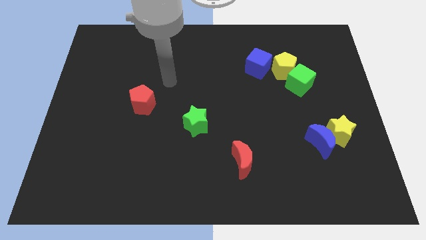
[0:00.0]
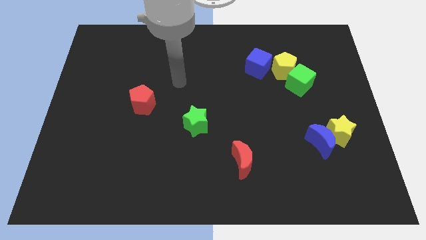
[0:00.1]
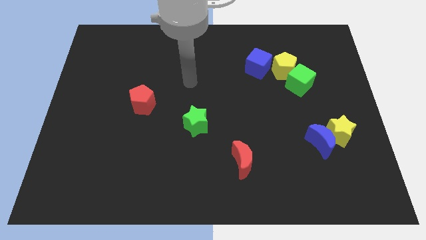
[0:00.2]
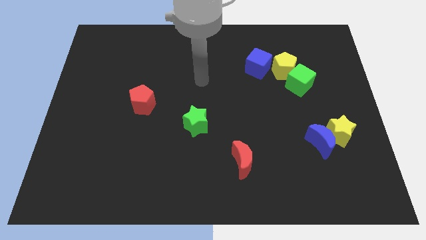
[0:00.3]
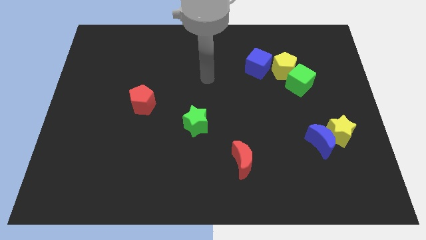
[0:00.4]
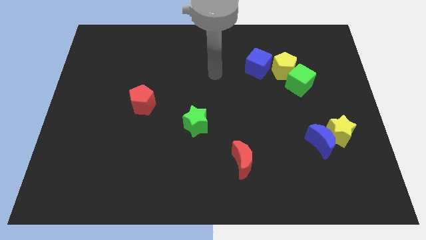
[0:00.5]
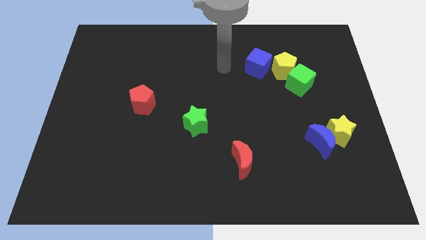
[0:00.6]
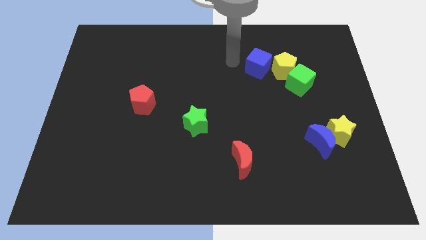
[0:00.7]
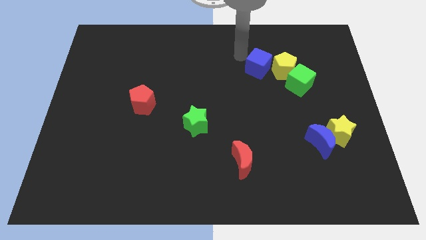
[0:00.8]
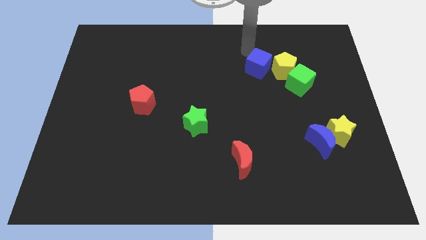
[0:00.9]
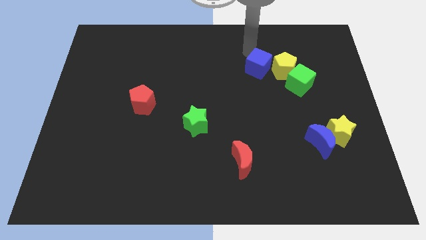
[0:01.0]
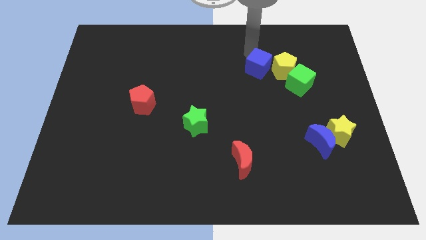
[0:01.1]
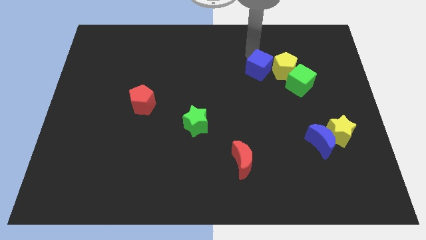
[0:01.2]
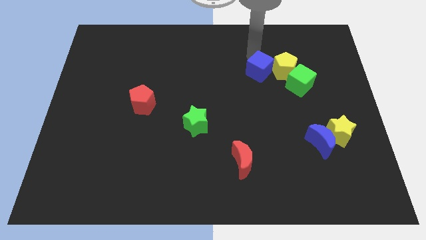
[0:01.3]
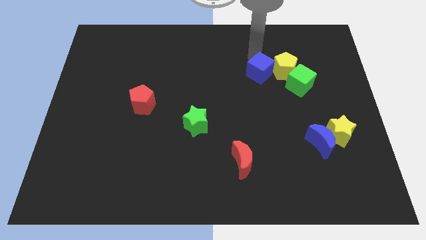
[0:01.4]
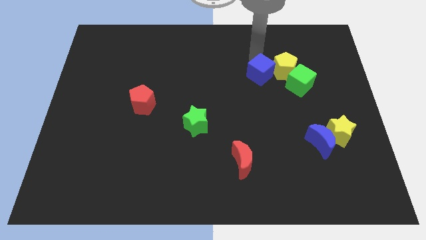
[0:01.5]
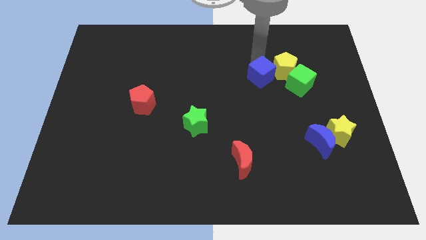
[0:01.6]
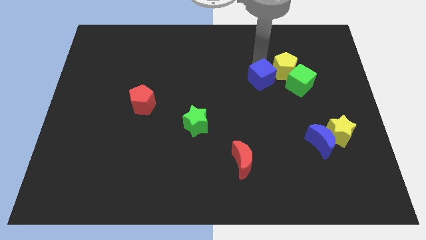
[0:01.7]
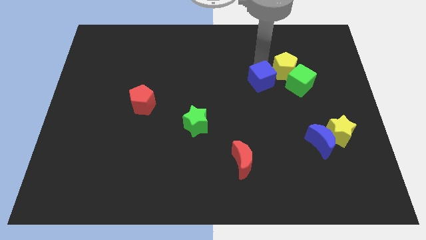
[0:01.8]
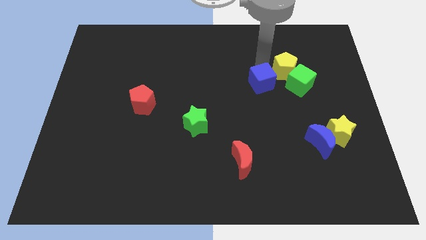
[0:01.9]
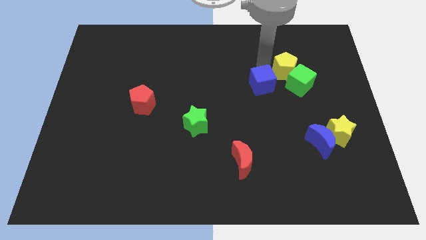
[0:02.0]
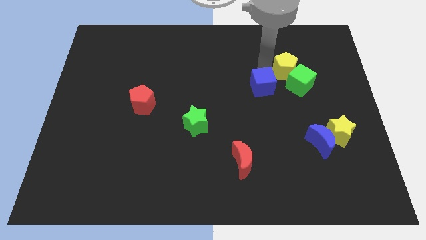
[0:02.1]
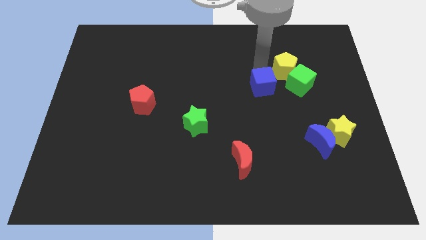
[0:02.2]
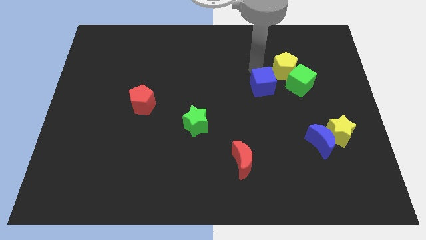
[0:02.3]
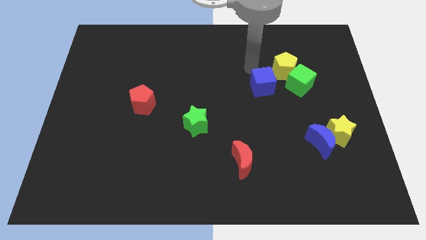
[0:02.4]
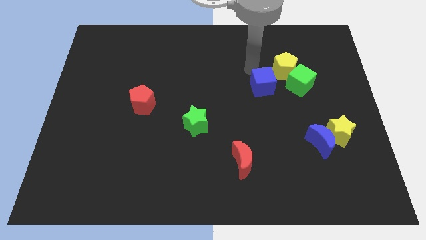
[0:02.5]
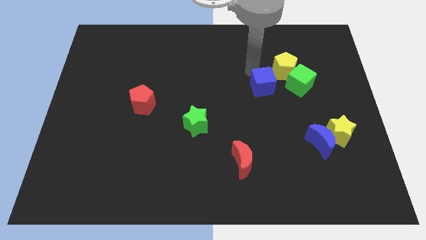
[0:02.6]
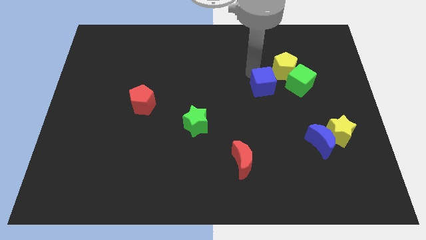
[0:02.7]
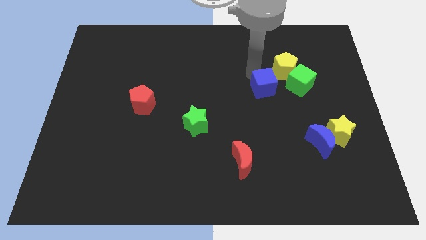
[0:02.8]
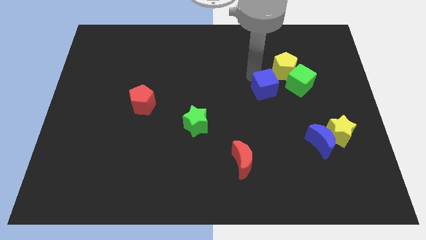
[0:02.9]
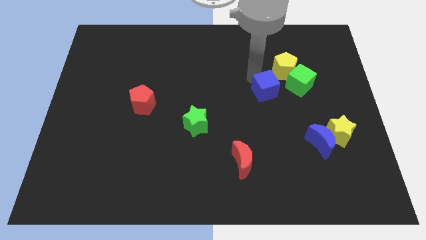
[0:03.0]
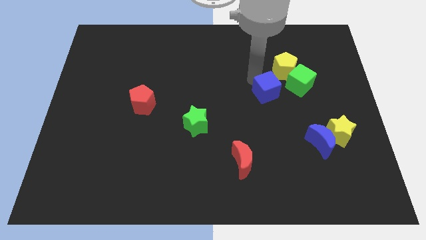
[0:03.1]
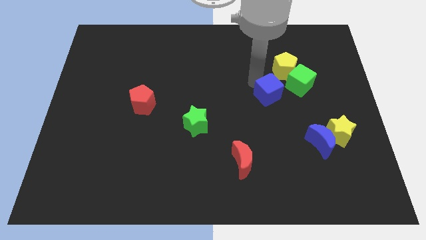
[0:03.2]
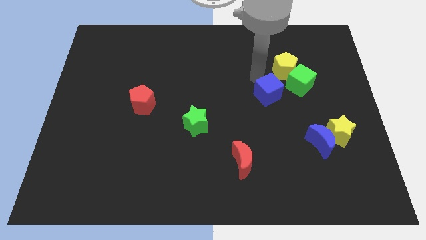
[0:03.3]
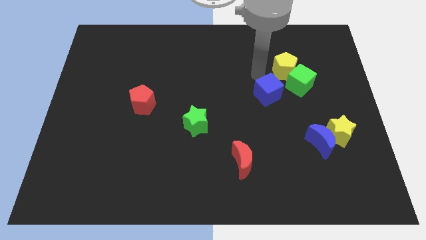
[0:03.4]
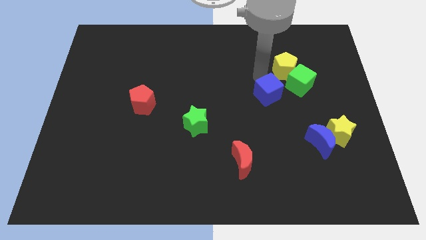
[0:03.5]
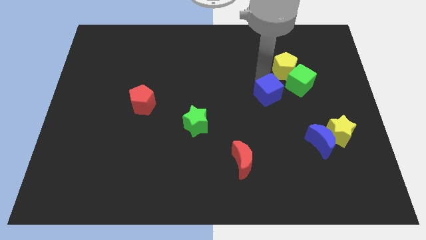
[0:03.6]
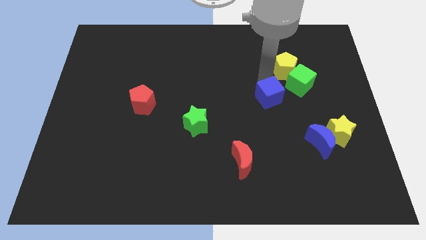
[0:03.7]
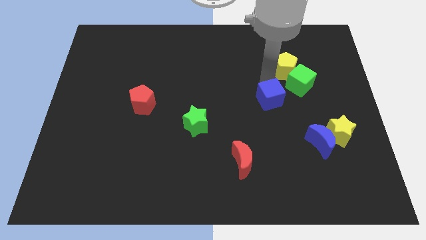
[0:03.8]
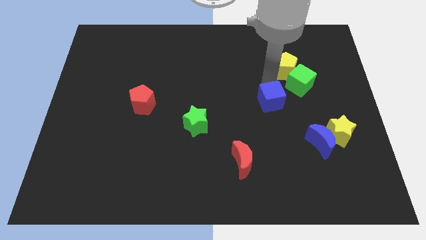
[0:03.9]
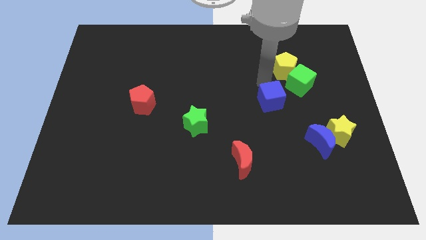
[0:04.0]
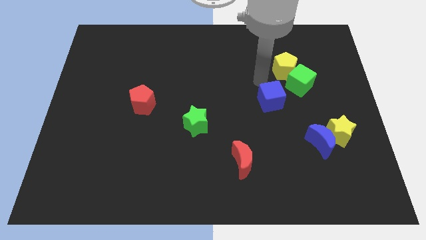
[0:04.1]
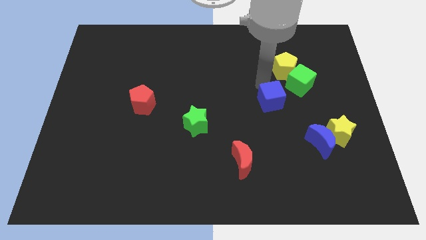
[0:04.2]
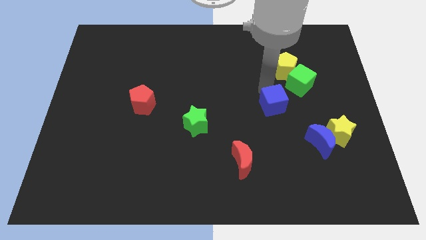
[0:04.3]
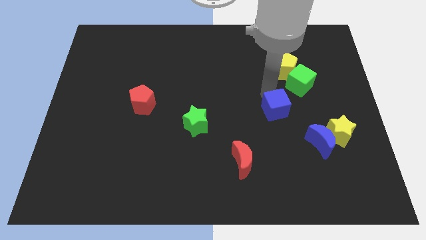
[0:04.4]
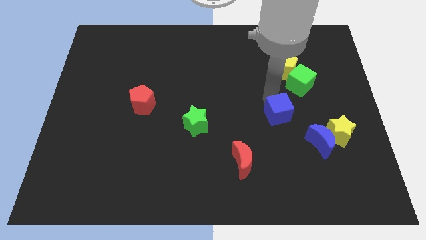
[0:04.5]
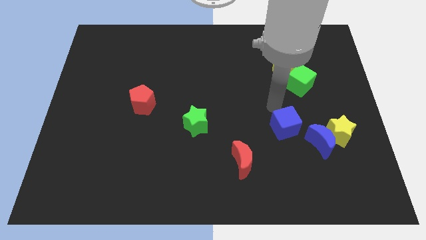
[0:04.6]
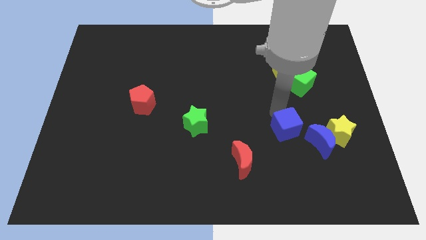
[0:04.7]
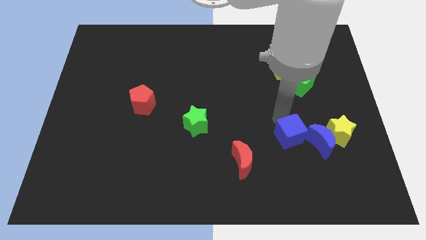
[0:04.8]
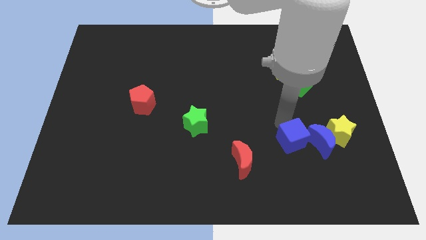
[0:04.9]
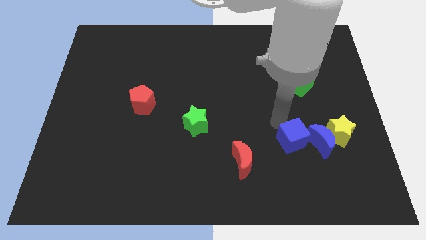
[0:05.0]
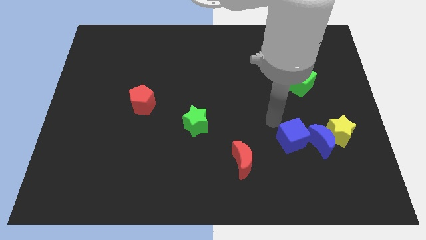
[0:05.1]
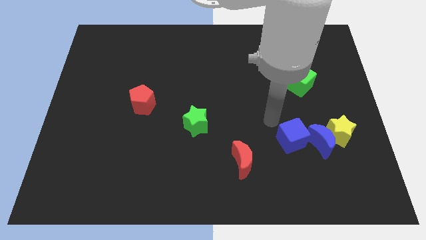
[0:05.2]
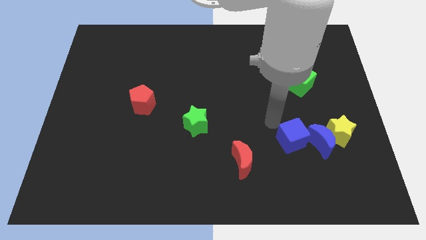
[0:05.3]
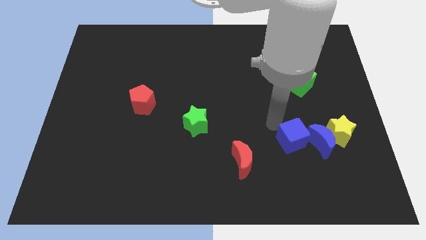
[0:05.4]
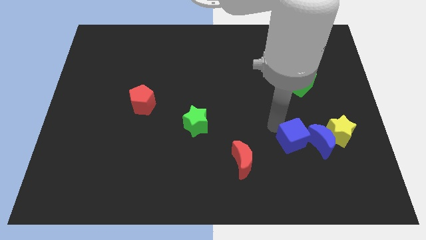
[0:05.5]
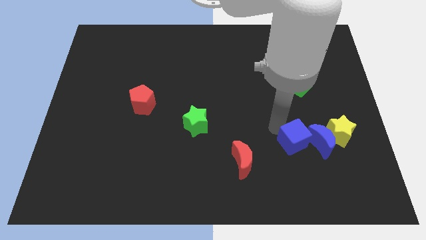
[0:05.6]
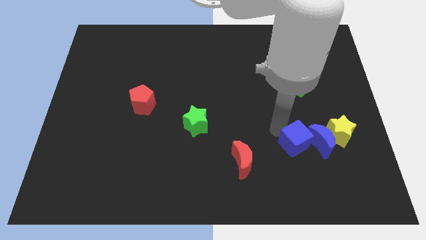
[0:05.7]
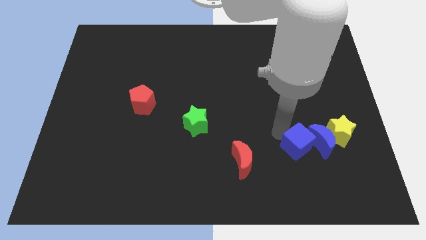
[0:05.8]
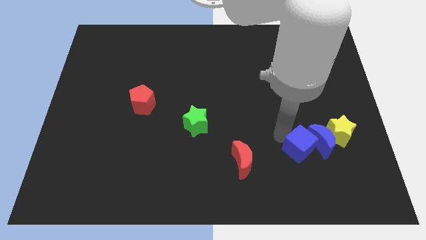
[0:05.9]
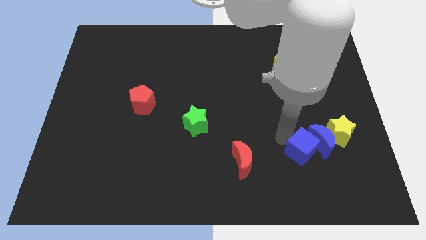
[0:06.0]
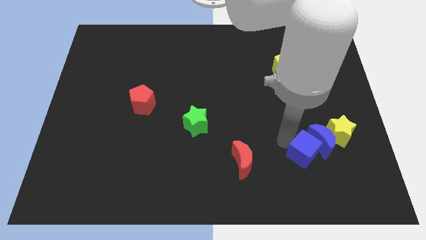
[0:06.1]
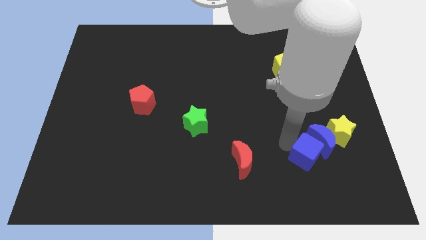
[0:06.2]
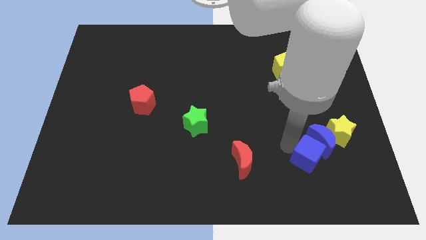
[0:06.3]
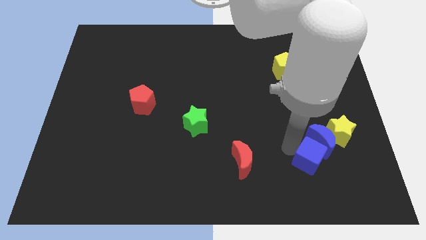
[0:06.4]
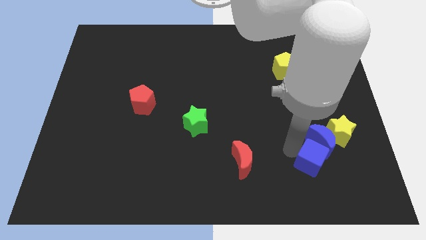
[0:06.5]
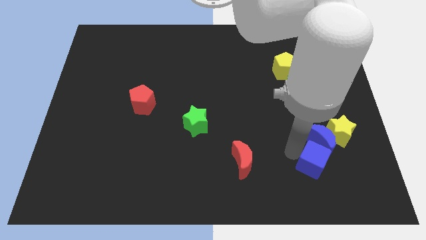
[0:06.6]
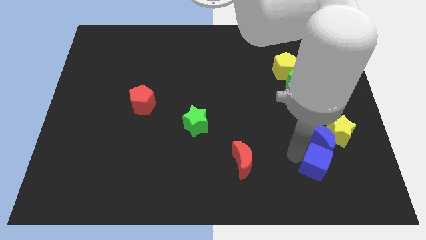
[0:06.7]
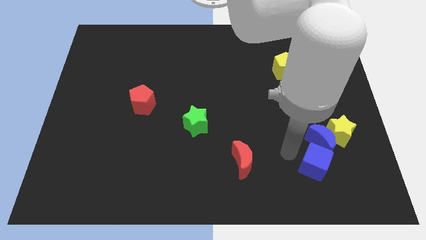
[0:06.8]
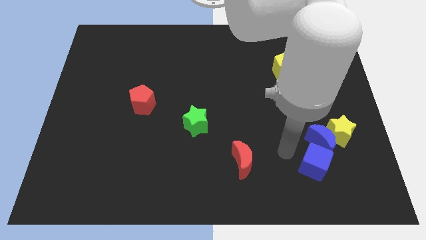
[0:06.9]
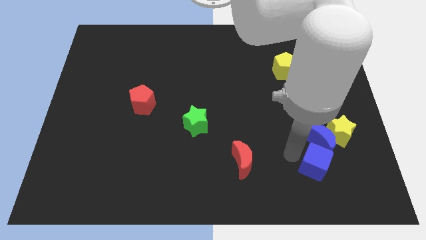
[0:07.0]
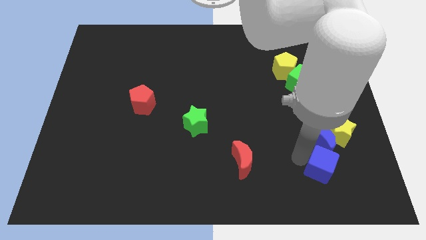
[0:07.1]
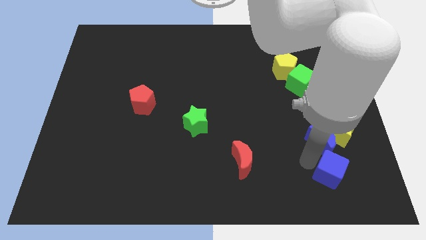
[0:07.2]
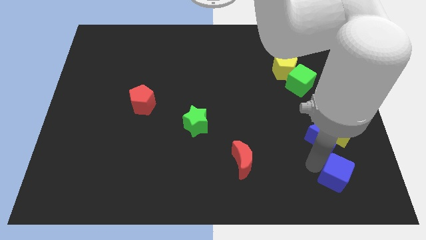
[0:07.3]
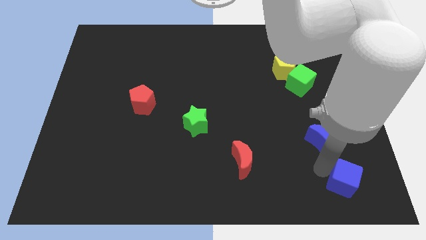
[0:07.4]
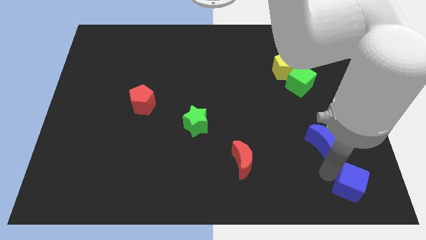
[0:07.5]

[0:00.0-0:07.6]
put the blue cube to the bottom right of the board
